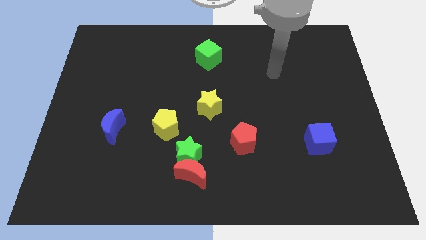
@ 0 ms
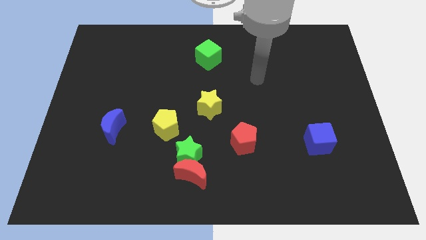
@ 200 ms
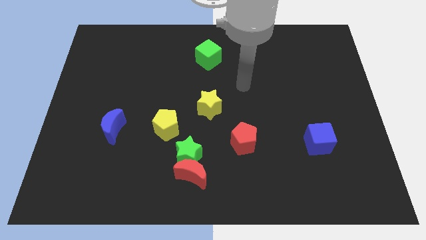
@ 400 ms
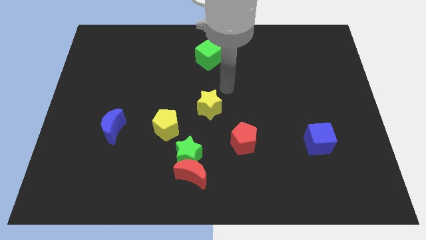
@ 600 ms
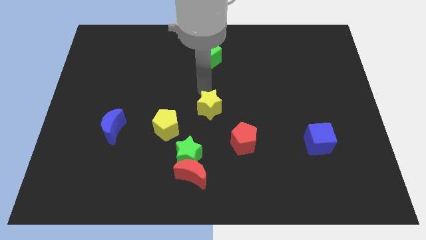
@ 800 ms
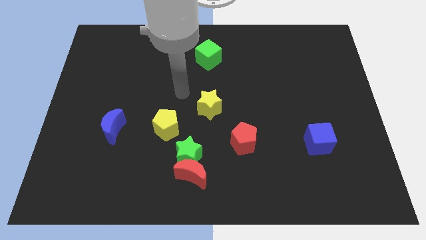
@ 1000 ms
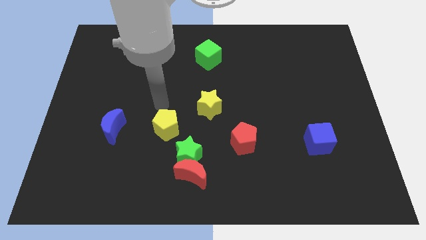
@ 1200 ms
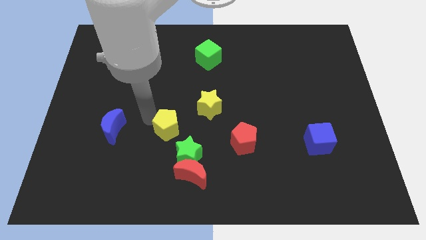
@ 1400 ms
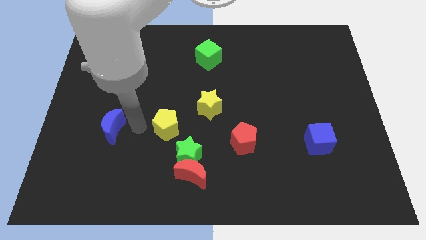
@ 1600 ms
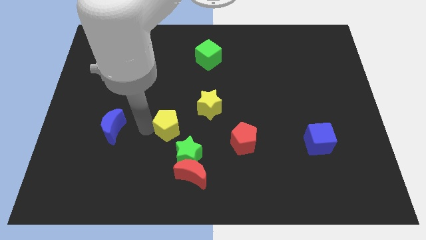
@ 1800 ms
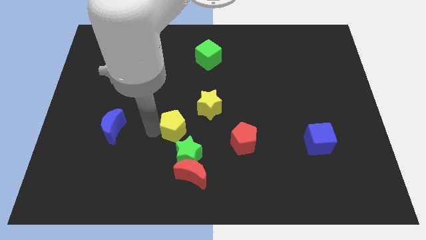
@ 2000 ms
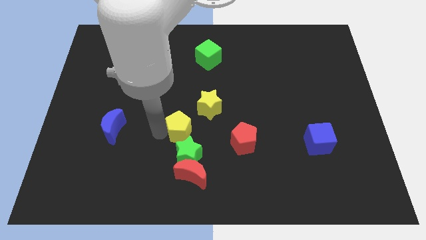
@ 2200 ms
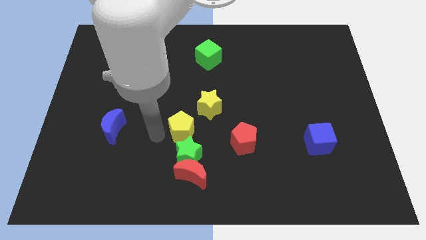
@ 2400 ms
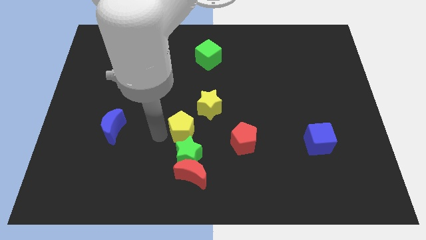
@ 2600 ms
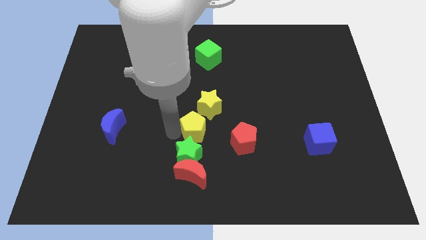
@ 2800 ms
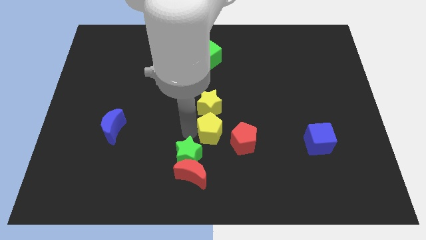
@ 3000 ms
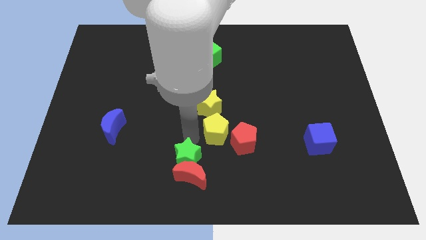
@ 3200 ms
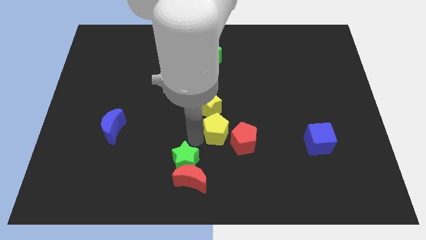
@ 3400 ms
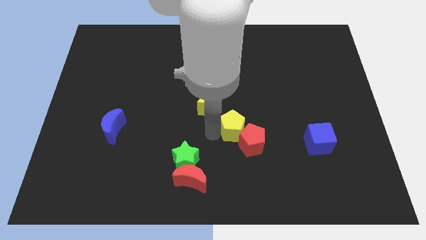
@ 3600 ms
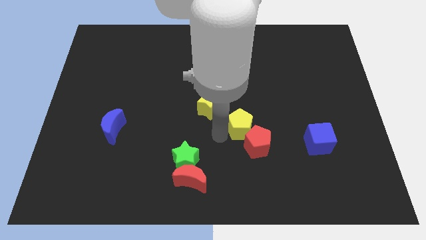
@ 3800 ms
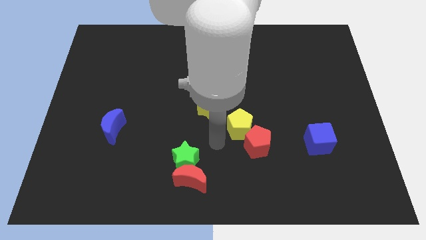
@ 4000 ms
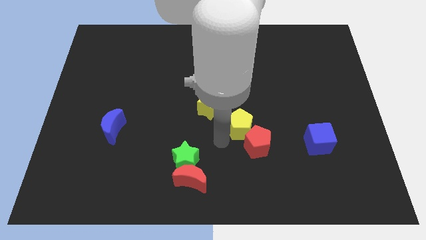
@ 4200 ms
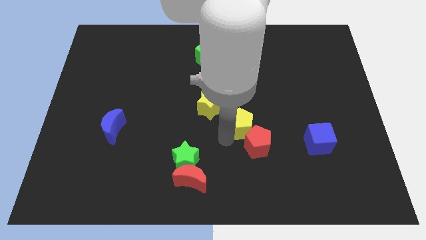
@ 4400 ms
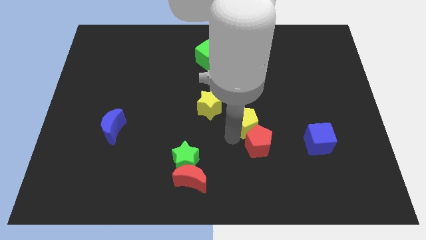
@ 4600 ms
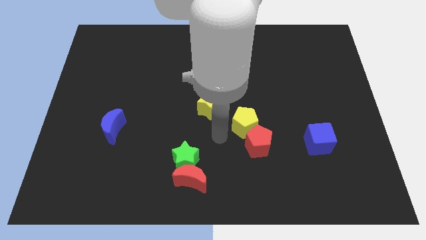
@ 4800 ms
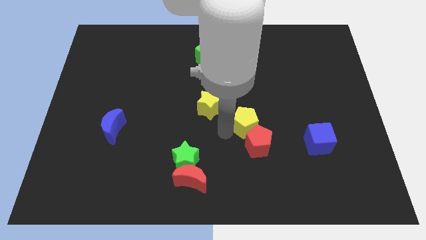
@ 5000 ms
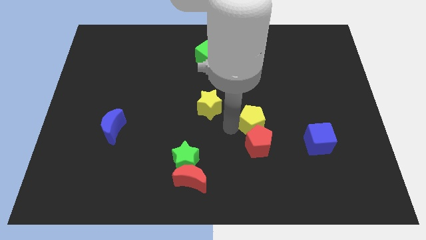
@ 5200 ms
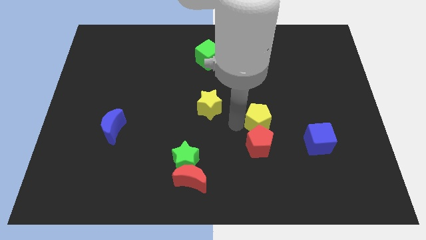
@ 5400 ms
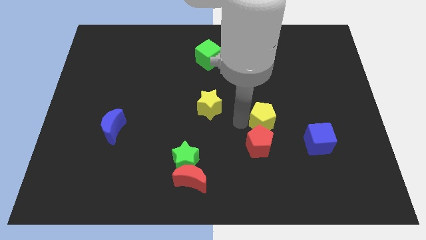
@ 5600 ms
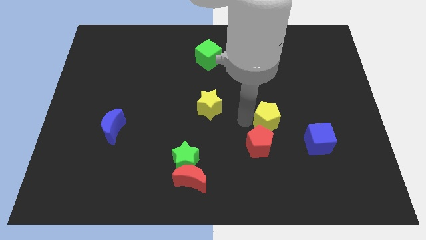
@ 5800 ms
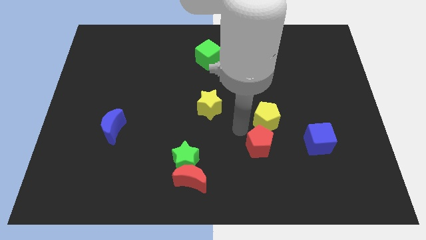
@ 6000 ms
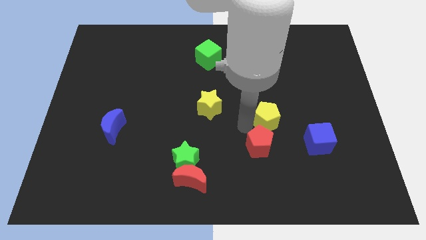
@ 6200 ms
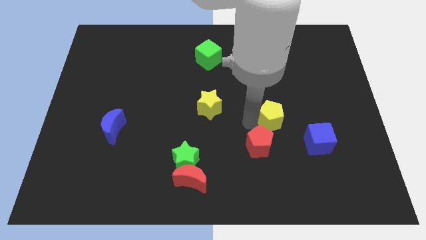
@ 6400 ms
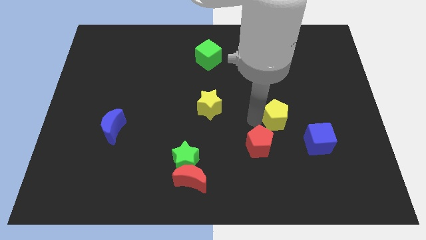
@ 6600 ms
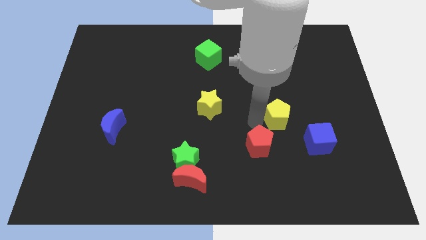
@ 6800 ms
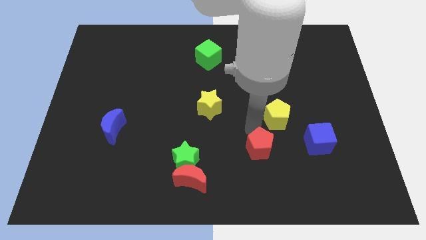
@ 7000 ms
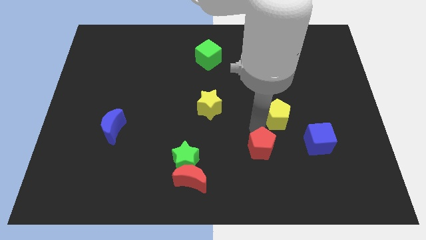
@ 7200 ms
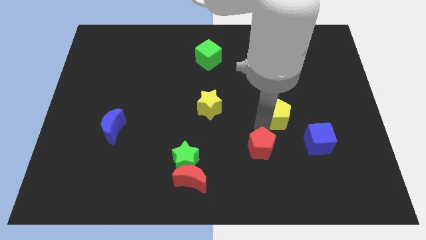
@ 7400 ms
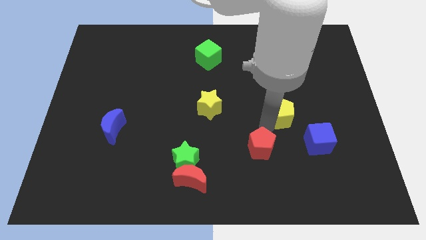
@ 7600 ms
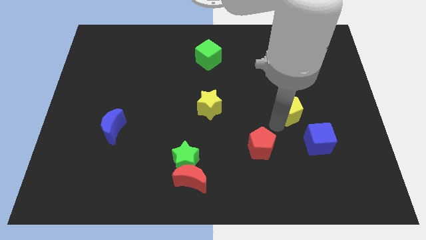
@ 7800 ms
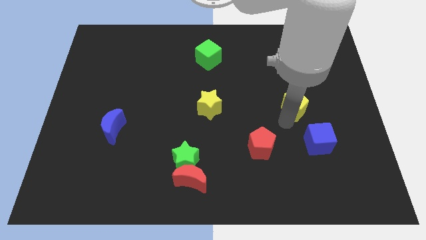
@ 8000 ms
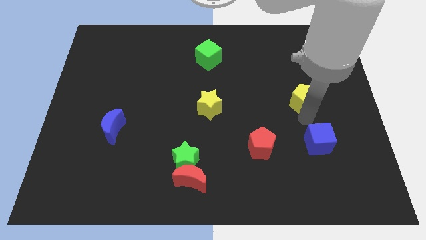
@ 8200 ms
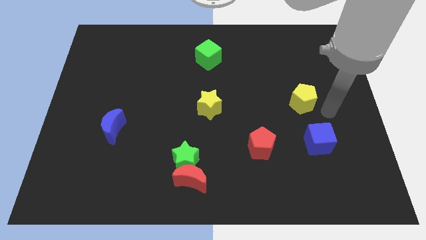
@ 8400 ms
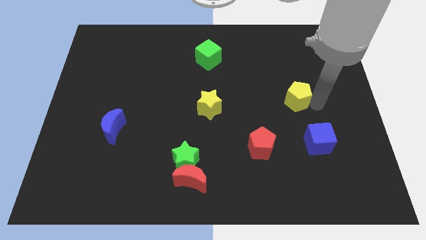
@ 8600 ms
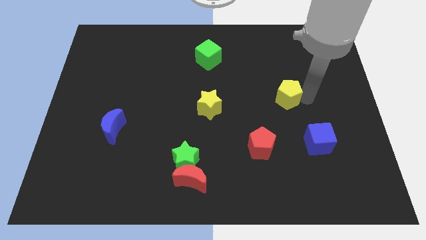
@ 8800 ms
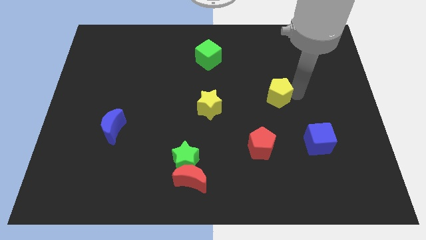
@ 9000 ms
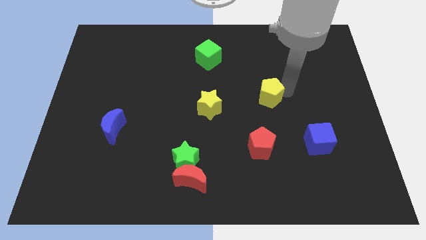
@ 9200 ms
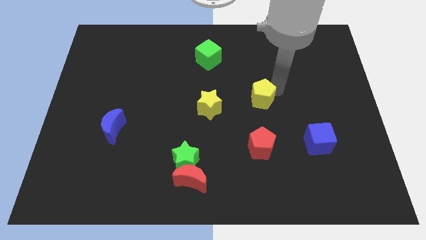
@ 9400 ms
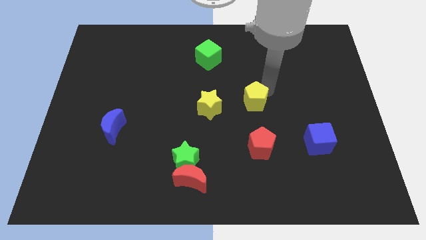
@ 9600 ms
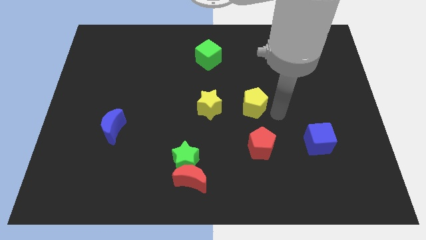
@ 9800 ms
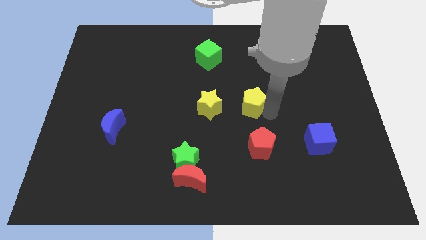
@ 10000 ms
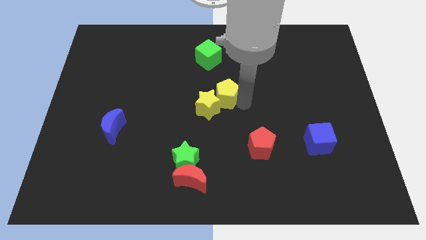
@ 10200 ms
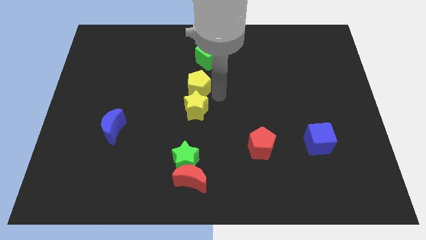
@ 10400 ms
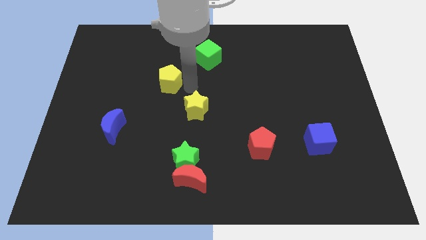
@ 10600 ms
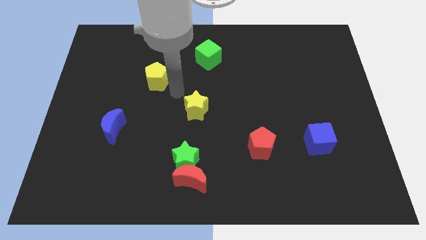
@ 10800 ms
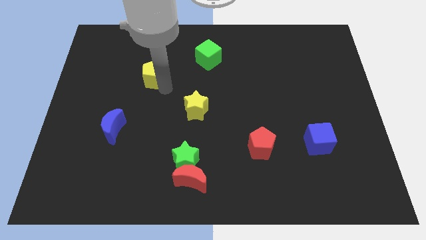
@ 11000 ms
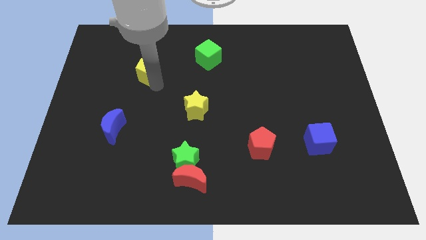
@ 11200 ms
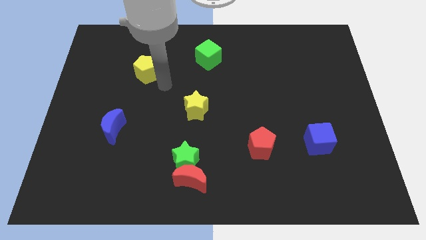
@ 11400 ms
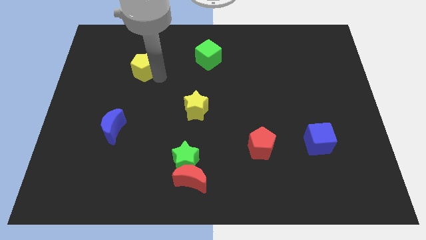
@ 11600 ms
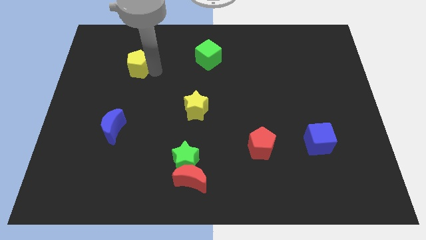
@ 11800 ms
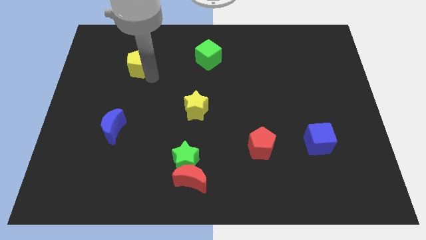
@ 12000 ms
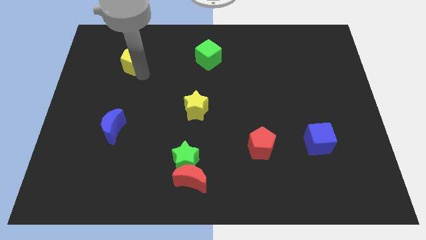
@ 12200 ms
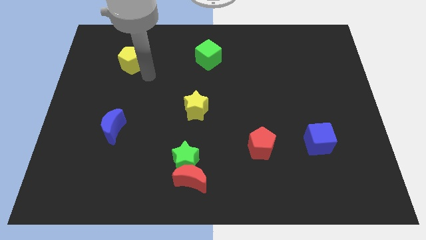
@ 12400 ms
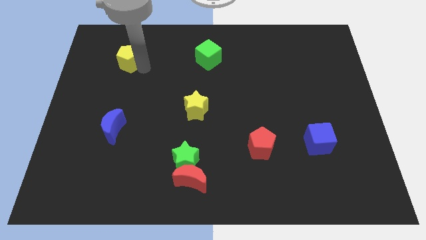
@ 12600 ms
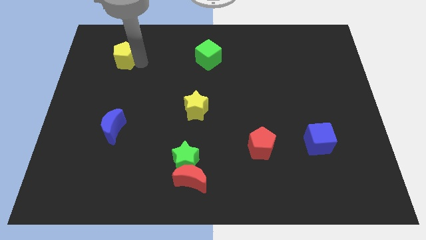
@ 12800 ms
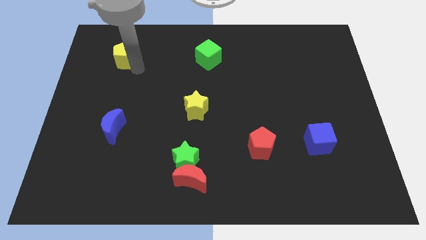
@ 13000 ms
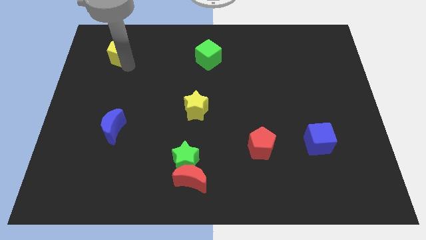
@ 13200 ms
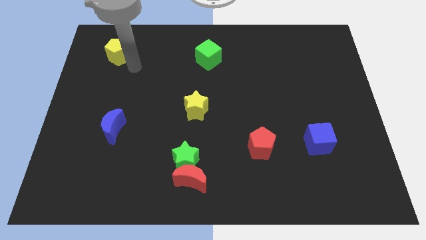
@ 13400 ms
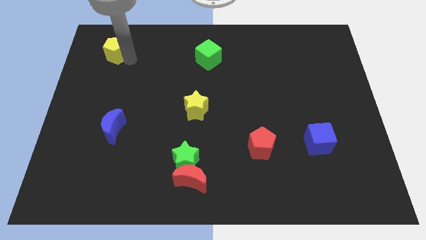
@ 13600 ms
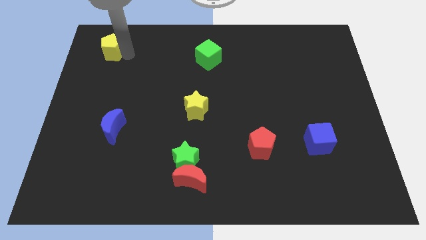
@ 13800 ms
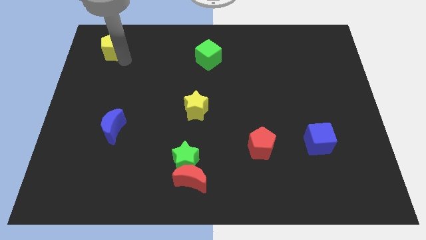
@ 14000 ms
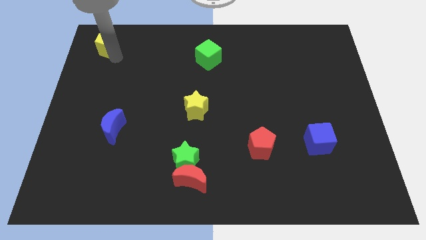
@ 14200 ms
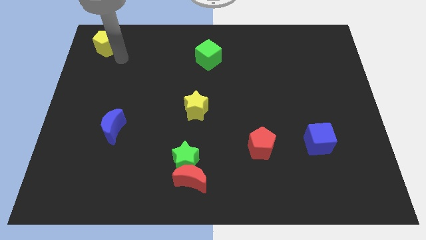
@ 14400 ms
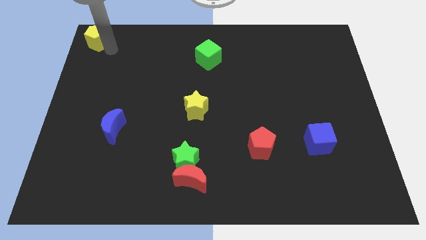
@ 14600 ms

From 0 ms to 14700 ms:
slide the yellow pentagon to the top left of the board
